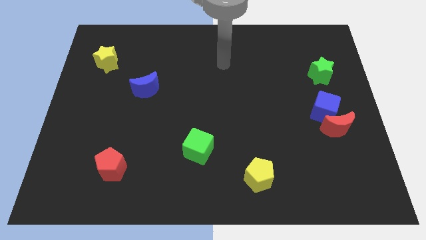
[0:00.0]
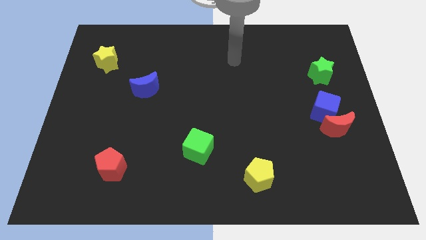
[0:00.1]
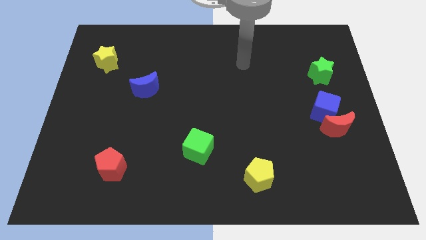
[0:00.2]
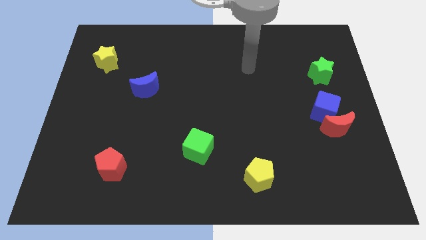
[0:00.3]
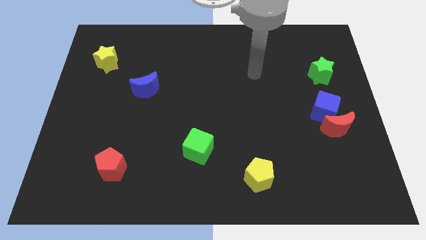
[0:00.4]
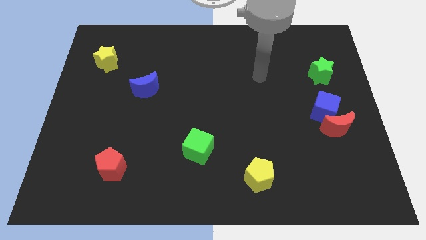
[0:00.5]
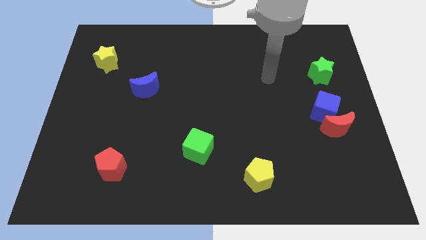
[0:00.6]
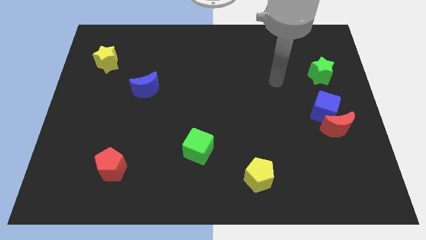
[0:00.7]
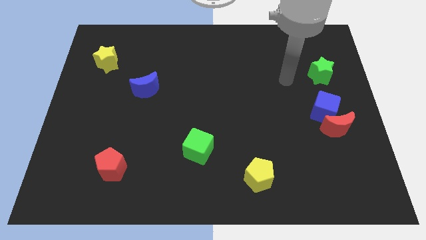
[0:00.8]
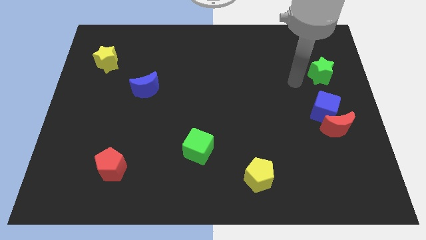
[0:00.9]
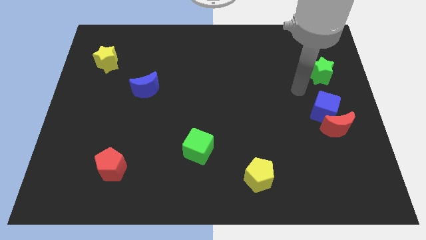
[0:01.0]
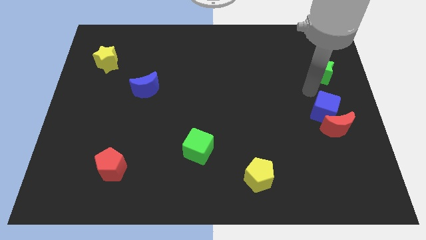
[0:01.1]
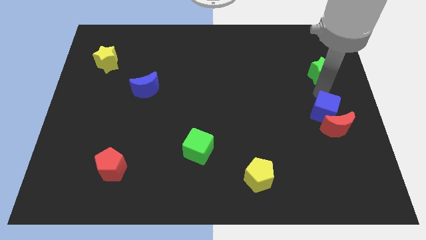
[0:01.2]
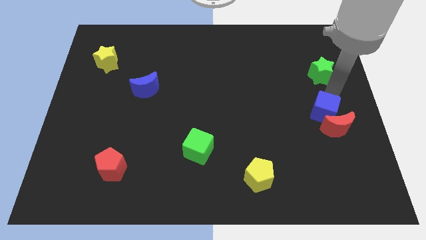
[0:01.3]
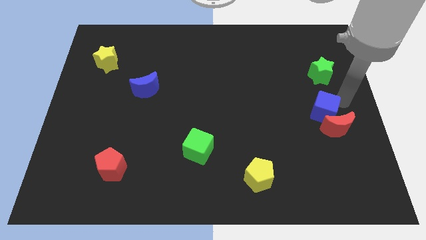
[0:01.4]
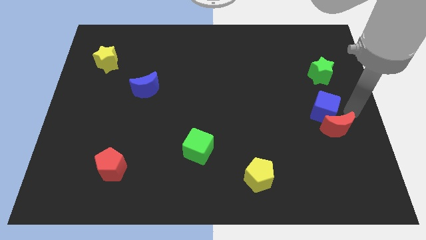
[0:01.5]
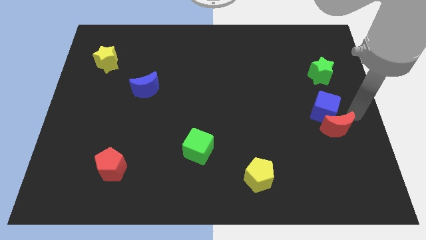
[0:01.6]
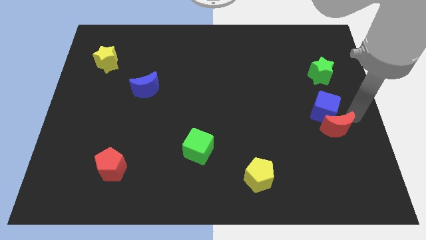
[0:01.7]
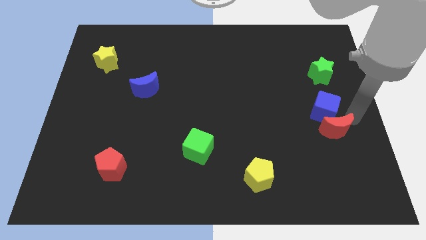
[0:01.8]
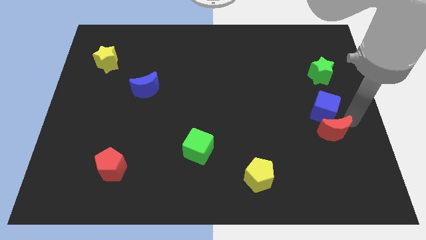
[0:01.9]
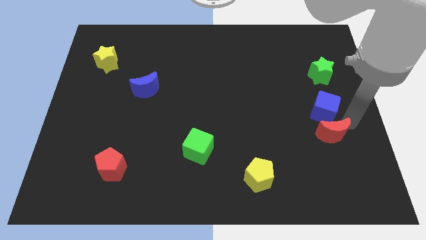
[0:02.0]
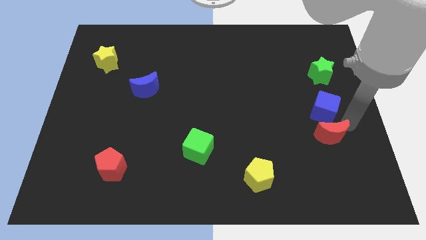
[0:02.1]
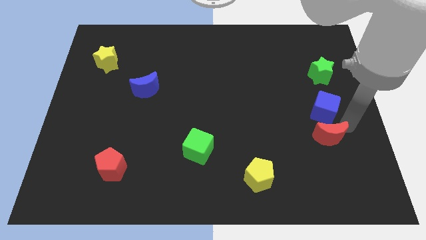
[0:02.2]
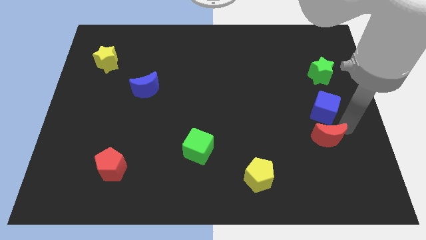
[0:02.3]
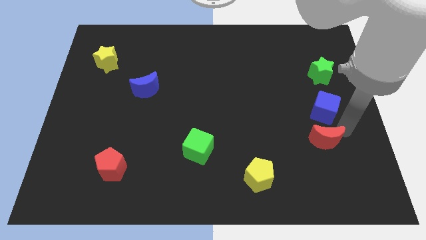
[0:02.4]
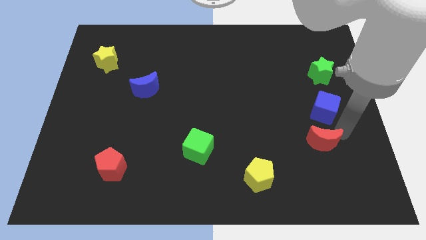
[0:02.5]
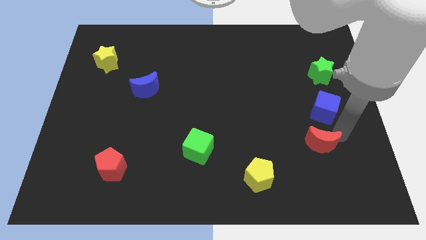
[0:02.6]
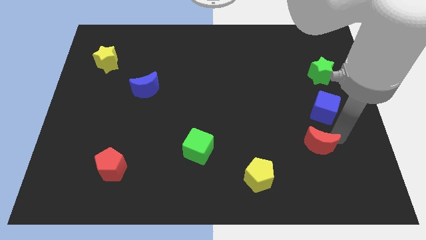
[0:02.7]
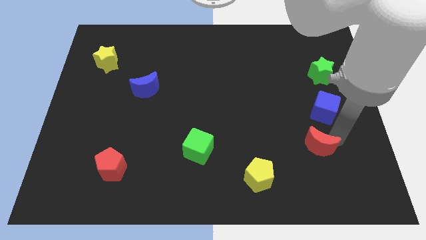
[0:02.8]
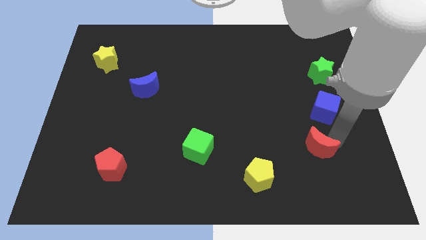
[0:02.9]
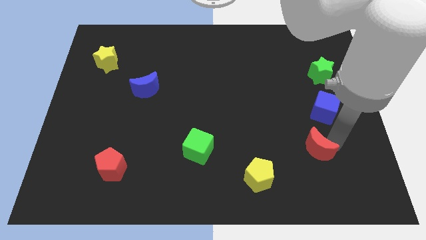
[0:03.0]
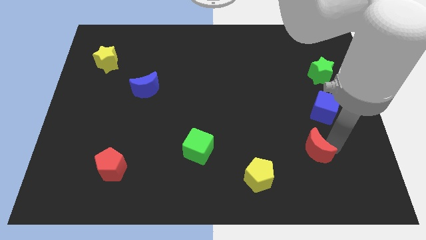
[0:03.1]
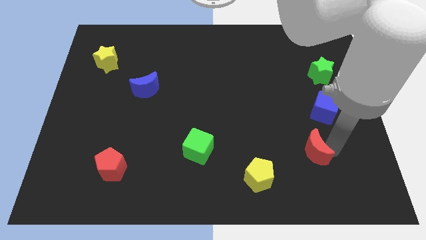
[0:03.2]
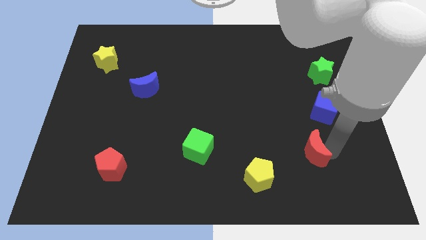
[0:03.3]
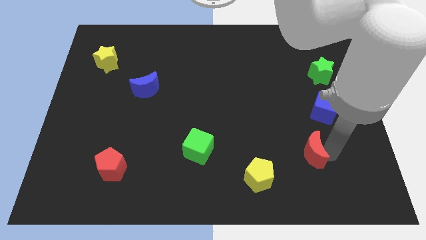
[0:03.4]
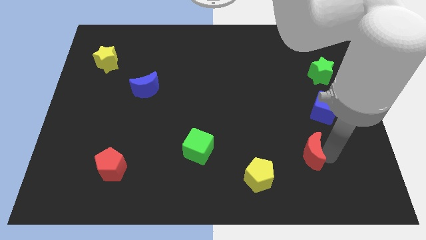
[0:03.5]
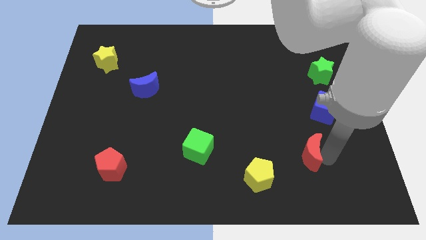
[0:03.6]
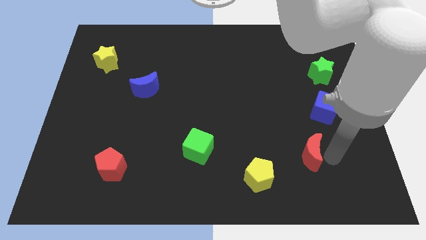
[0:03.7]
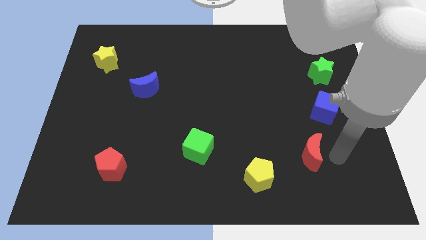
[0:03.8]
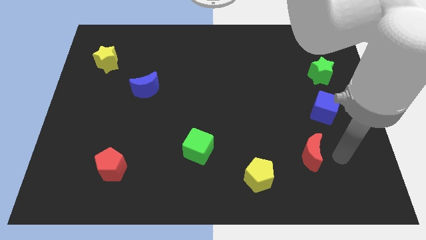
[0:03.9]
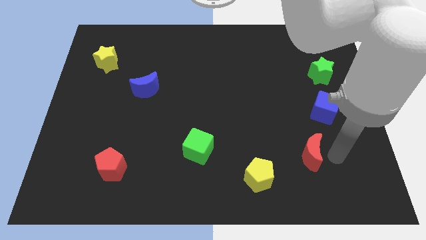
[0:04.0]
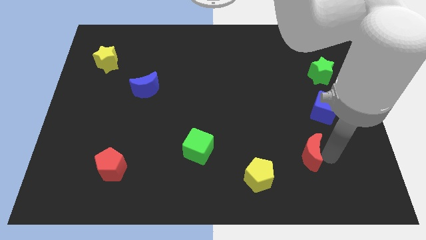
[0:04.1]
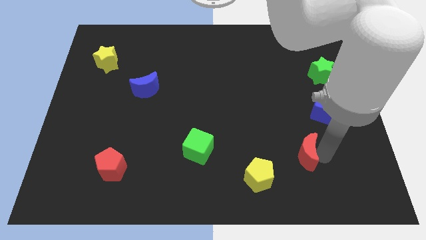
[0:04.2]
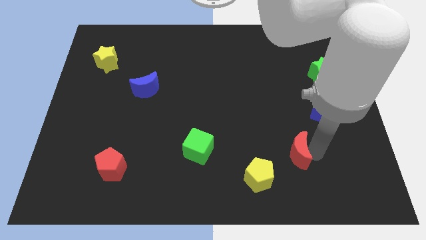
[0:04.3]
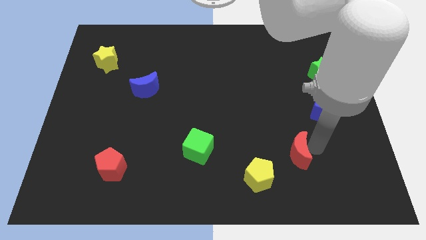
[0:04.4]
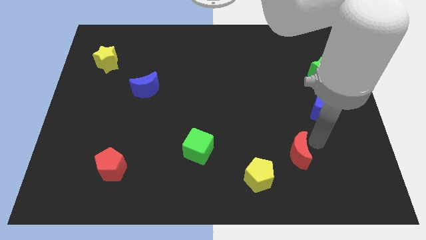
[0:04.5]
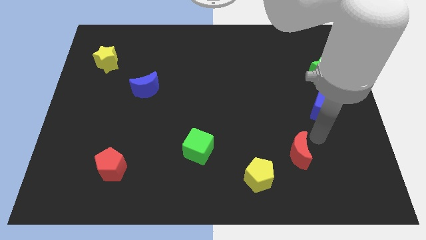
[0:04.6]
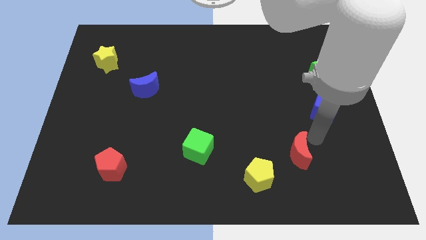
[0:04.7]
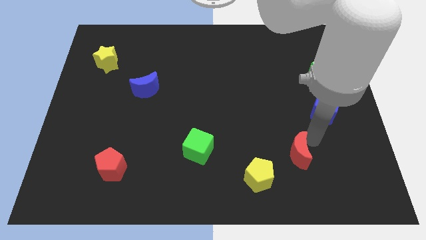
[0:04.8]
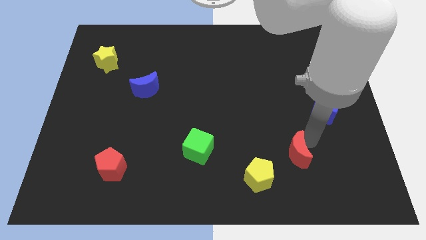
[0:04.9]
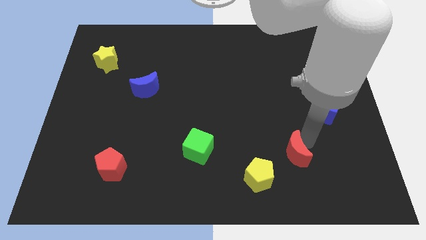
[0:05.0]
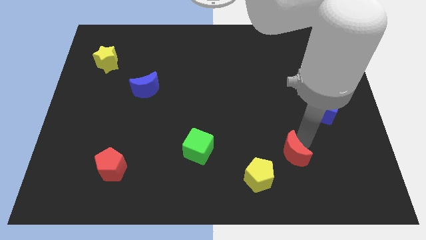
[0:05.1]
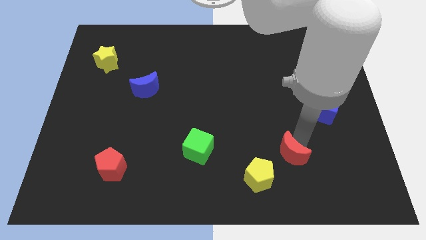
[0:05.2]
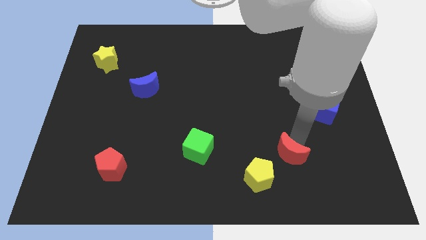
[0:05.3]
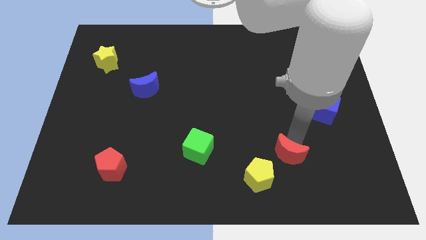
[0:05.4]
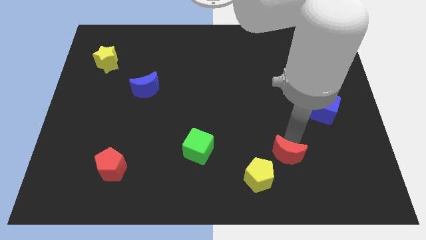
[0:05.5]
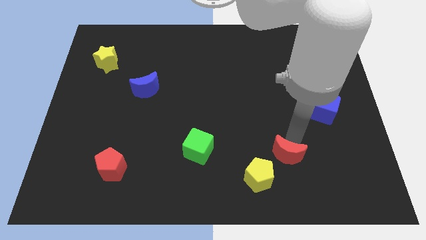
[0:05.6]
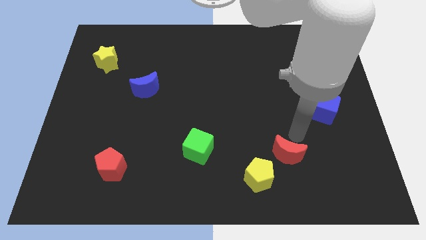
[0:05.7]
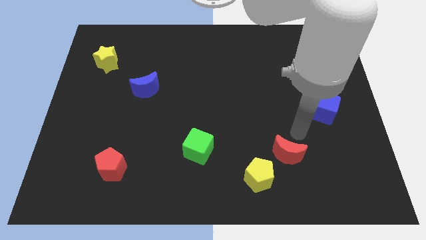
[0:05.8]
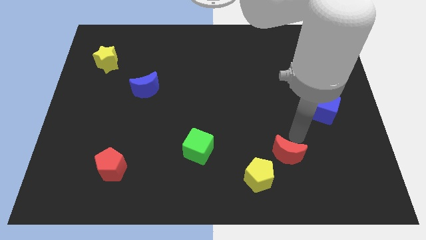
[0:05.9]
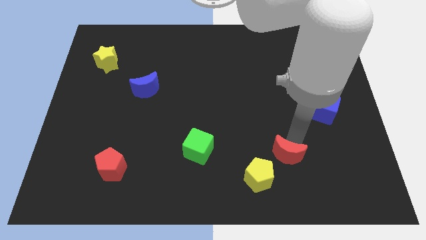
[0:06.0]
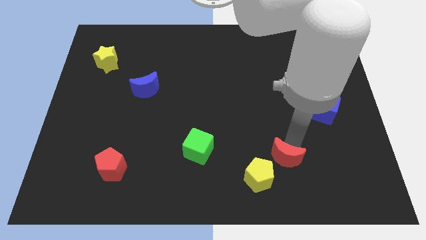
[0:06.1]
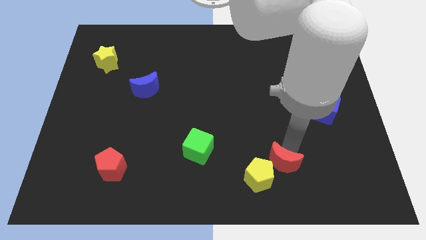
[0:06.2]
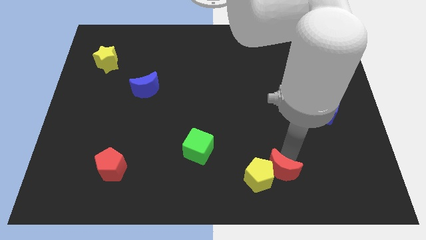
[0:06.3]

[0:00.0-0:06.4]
put the red moon towards the yellow pentagon

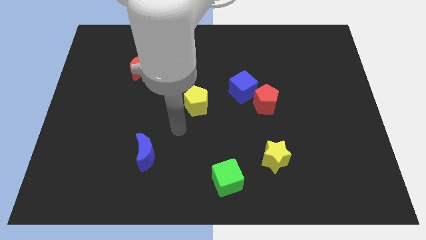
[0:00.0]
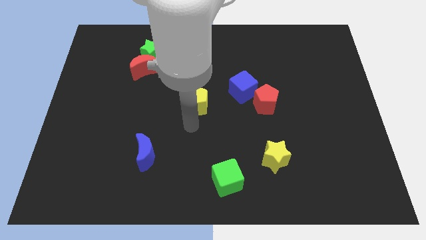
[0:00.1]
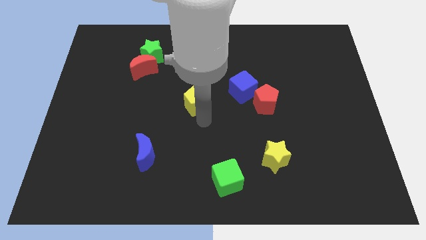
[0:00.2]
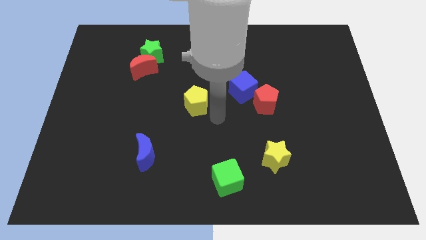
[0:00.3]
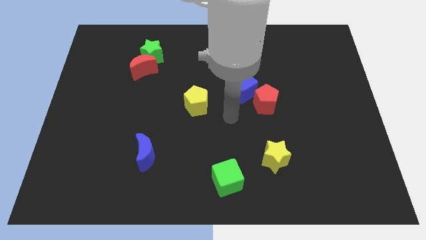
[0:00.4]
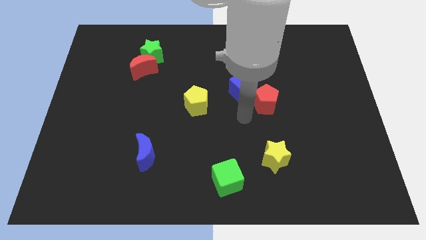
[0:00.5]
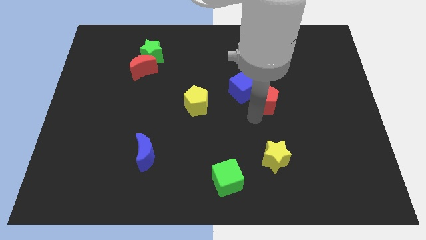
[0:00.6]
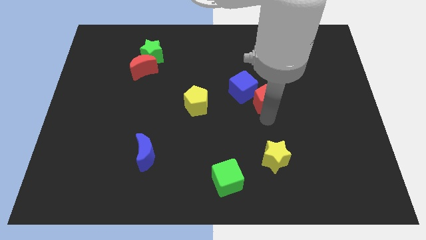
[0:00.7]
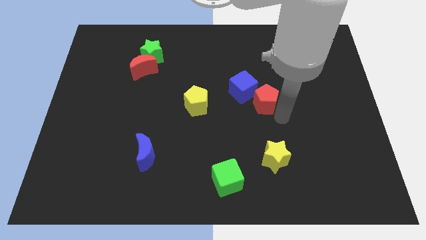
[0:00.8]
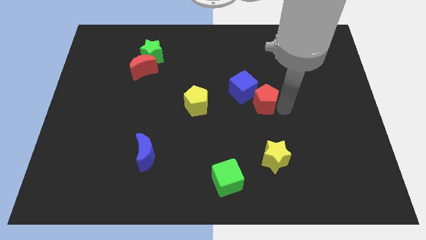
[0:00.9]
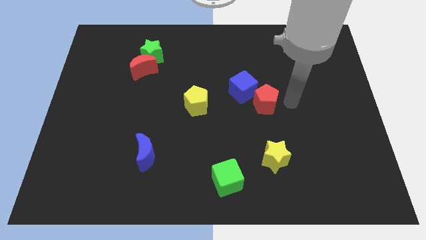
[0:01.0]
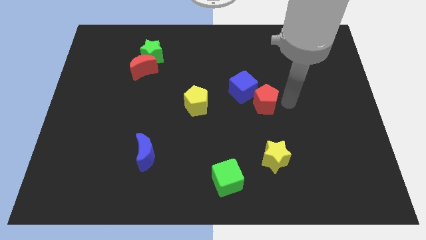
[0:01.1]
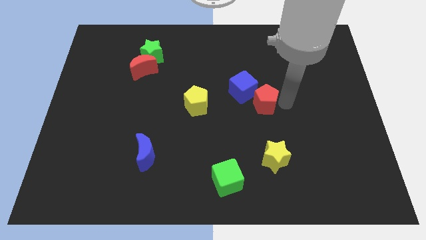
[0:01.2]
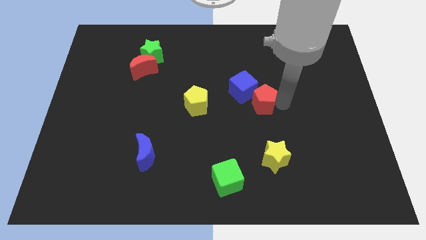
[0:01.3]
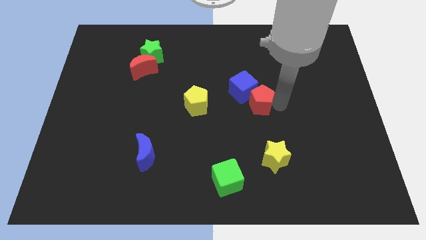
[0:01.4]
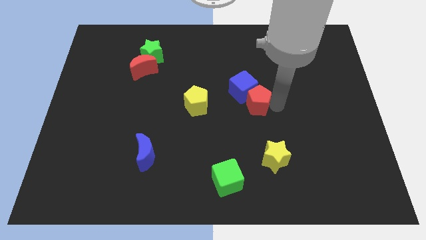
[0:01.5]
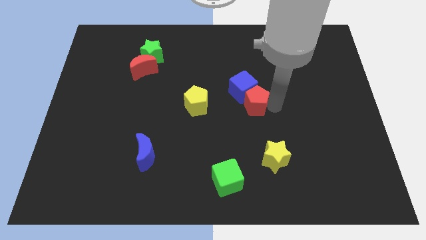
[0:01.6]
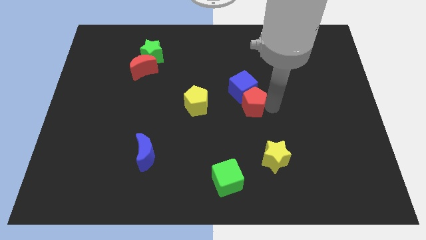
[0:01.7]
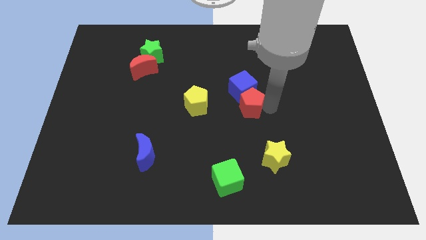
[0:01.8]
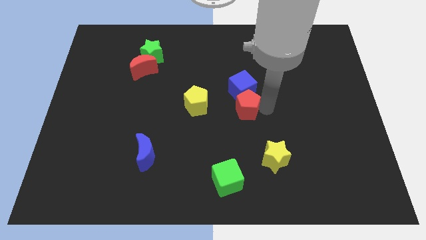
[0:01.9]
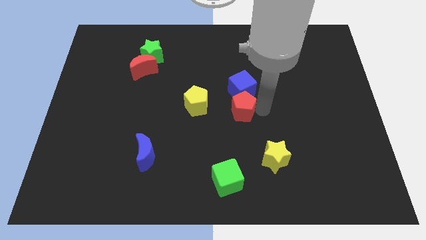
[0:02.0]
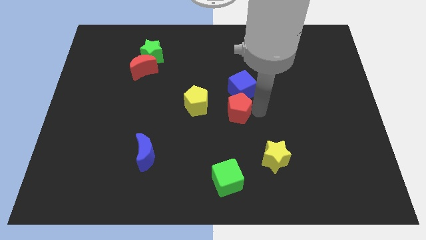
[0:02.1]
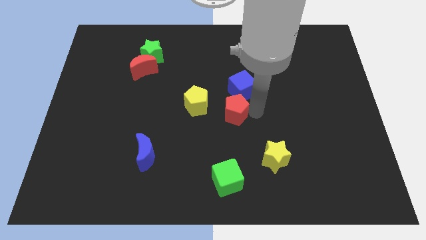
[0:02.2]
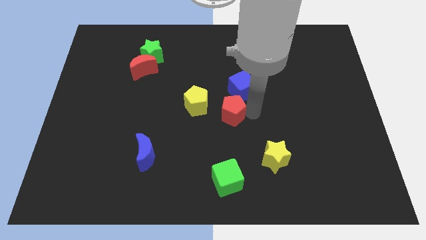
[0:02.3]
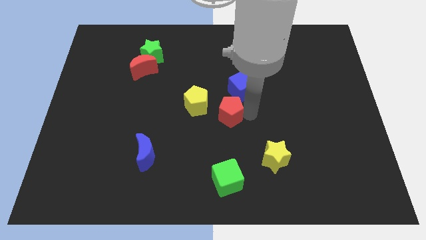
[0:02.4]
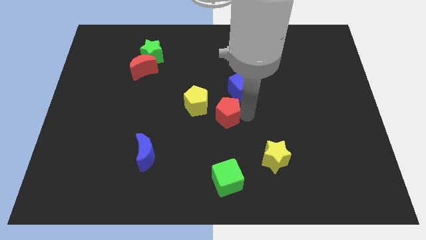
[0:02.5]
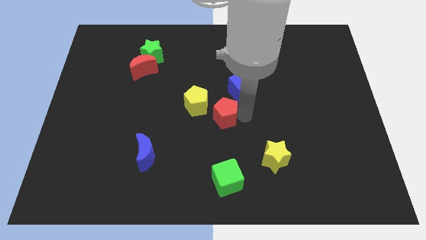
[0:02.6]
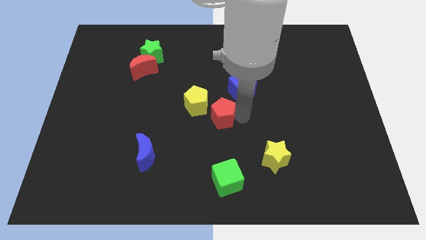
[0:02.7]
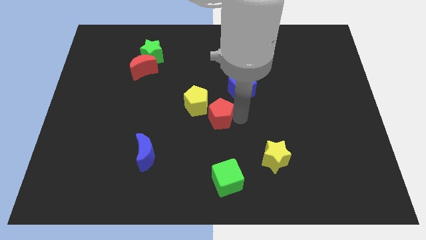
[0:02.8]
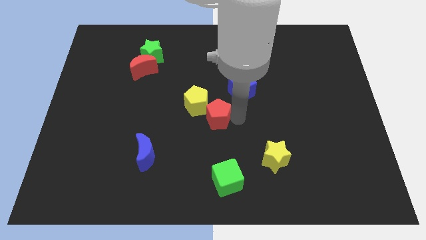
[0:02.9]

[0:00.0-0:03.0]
put the red pentagon to the yellow pentagon
